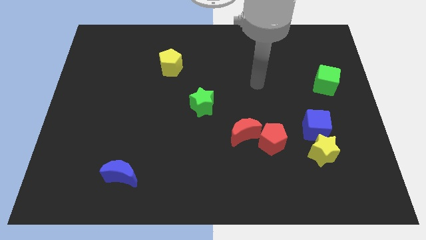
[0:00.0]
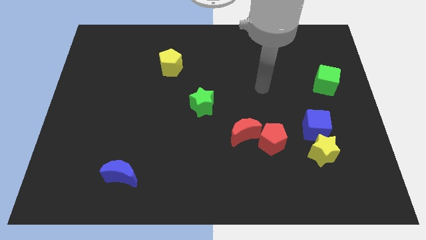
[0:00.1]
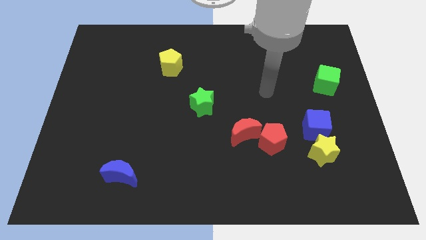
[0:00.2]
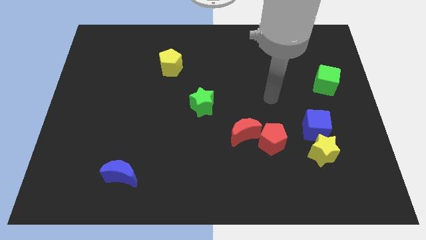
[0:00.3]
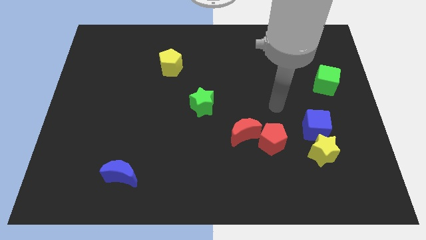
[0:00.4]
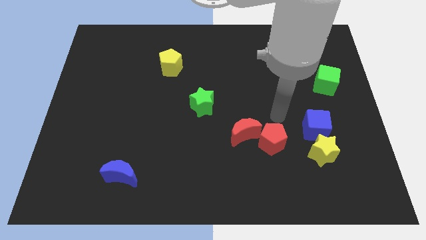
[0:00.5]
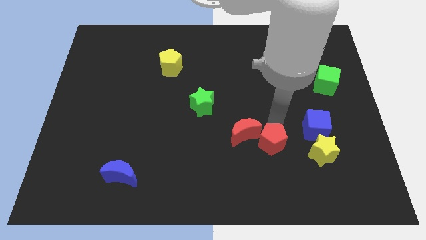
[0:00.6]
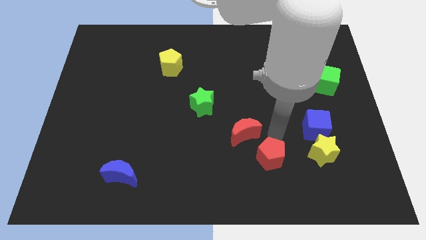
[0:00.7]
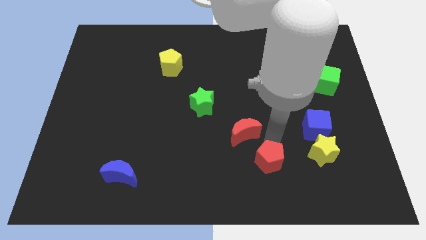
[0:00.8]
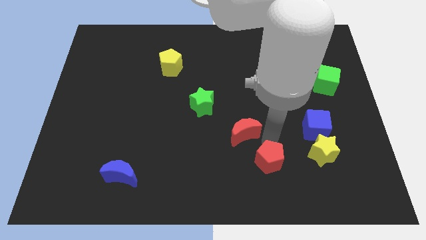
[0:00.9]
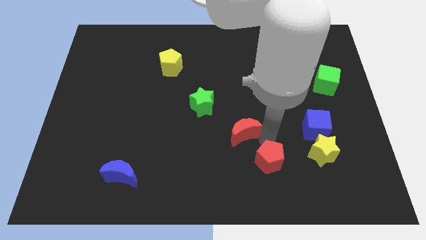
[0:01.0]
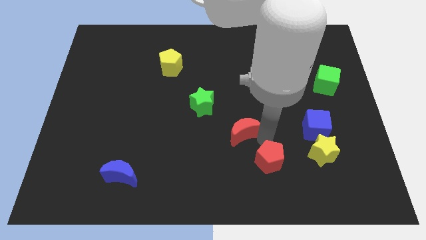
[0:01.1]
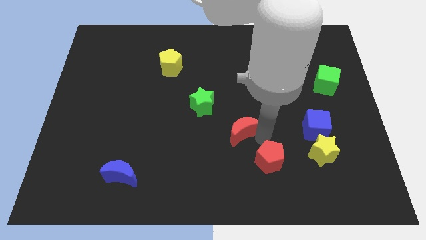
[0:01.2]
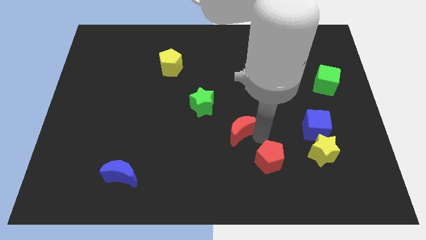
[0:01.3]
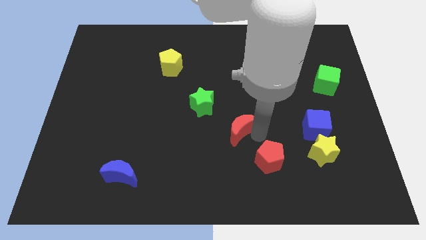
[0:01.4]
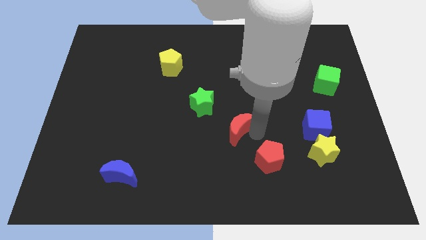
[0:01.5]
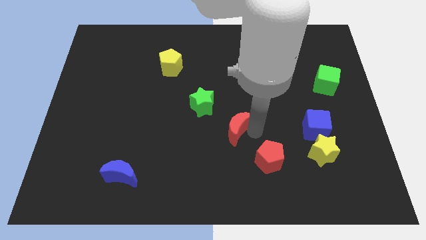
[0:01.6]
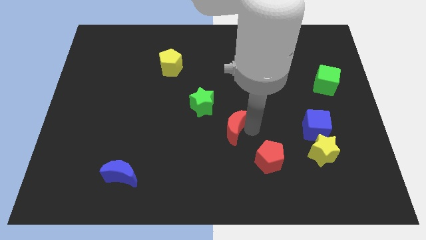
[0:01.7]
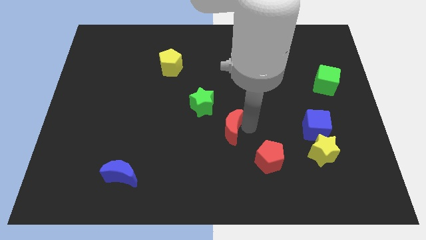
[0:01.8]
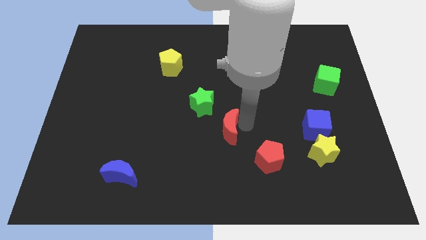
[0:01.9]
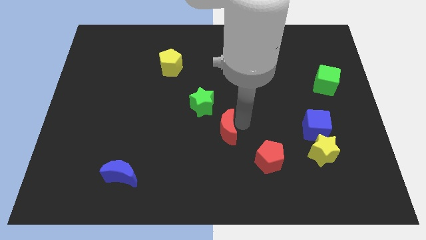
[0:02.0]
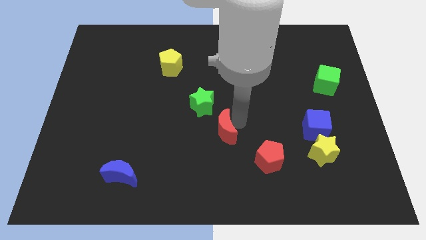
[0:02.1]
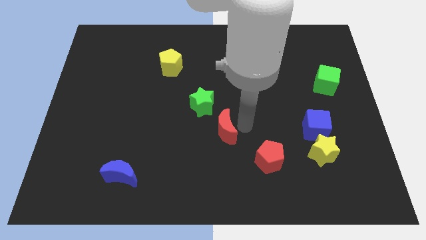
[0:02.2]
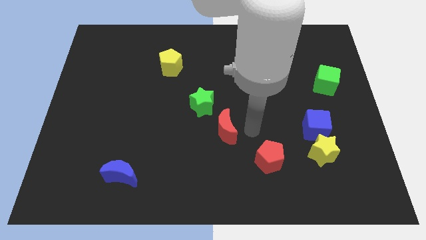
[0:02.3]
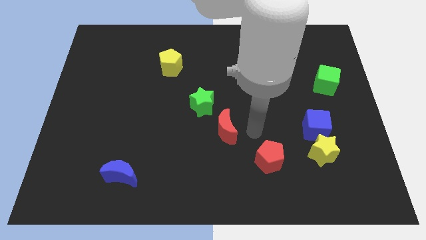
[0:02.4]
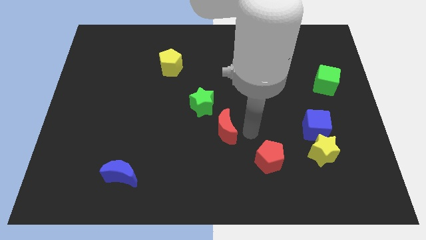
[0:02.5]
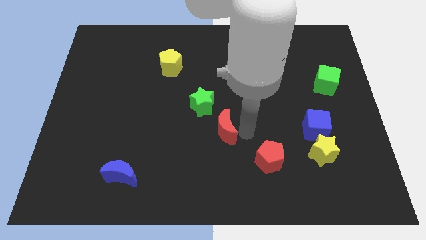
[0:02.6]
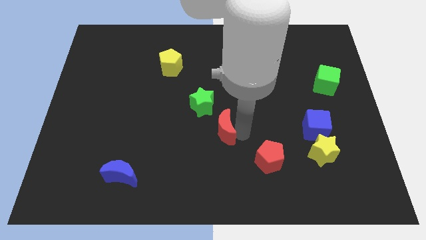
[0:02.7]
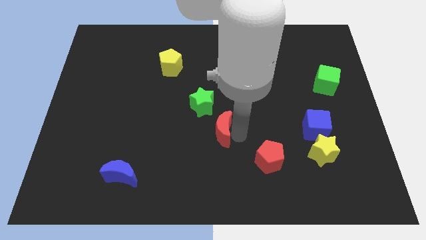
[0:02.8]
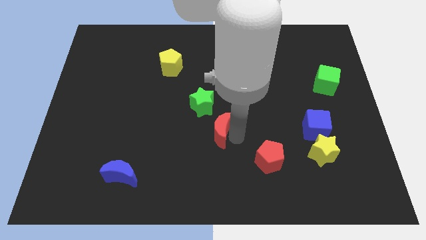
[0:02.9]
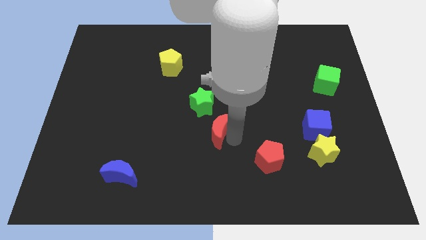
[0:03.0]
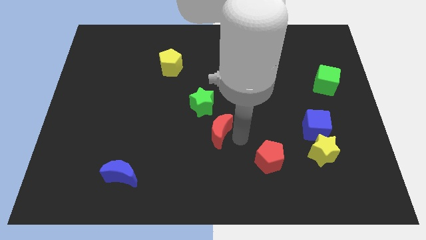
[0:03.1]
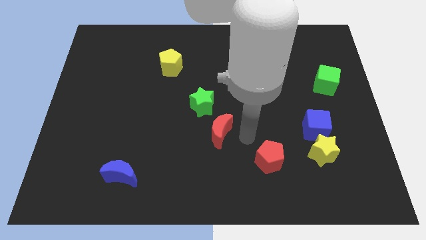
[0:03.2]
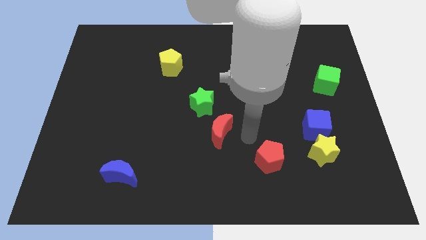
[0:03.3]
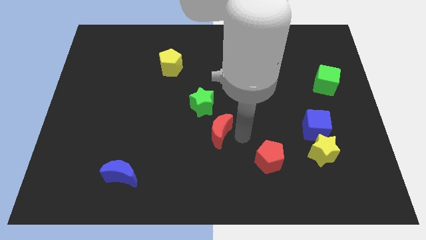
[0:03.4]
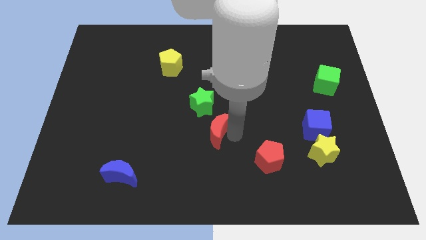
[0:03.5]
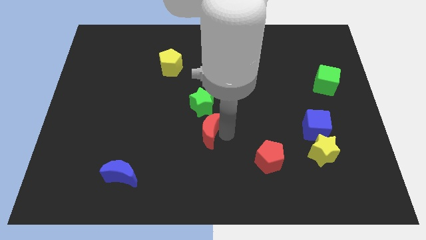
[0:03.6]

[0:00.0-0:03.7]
slightly slide the red moon to the left

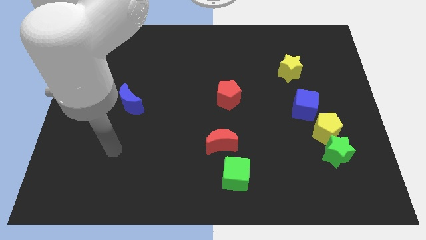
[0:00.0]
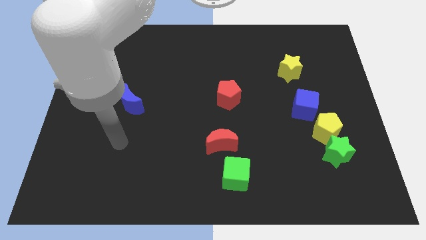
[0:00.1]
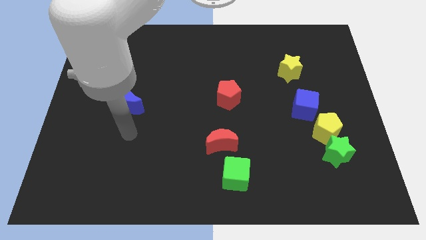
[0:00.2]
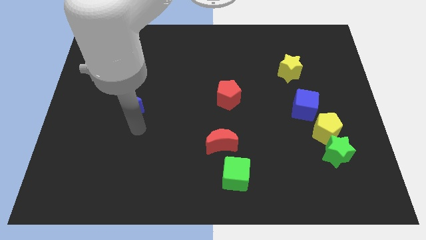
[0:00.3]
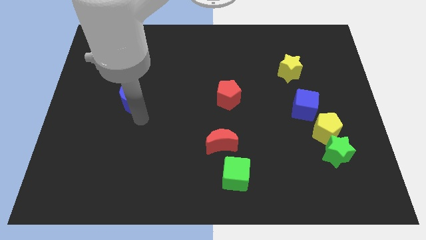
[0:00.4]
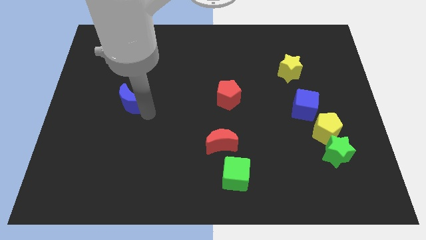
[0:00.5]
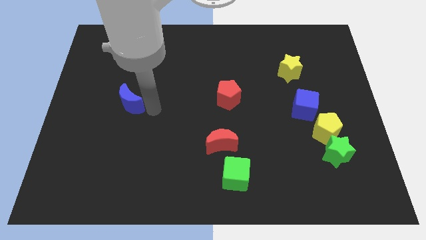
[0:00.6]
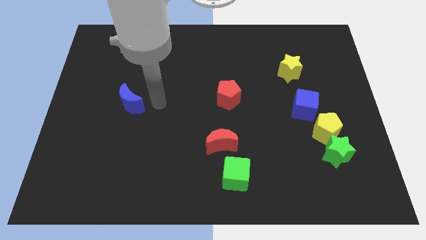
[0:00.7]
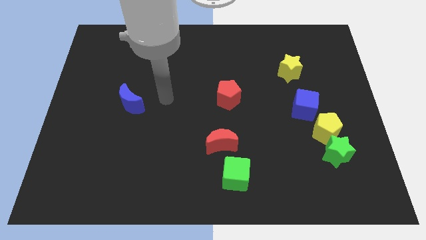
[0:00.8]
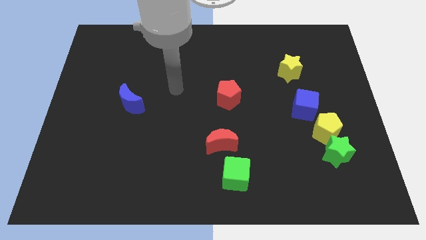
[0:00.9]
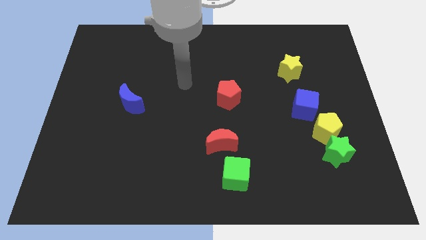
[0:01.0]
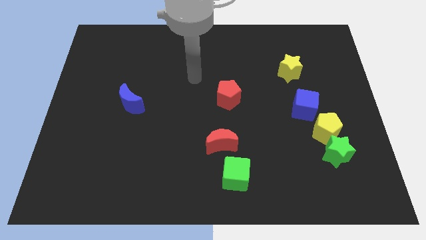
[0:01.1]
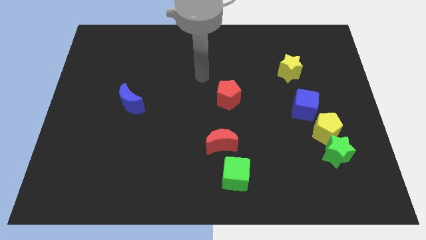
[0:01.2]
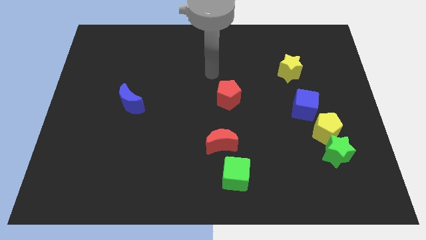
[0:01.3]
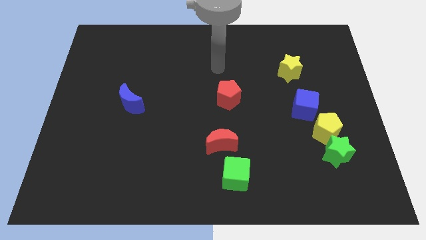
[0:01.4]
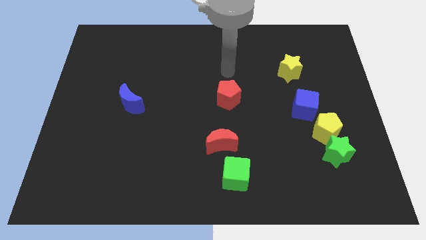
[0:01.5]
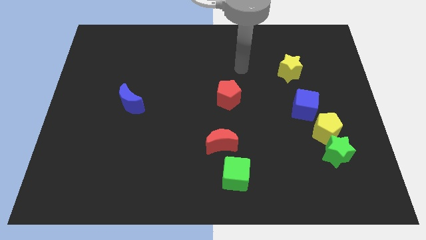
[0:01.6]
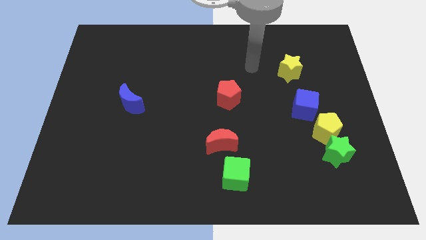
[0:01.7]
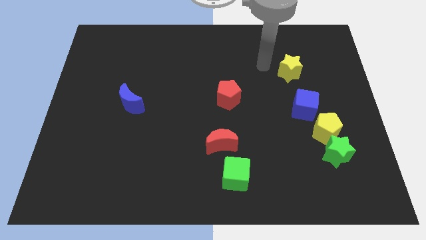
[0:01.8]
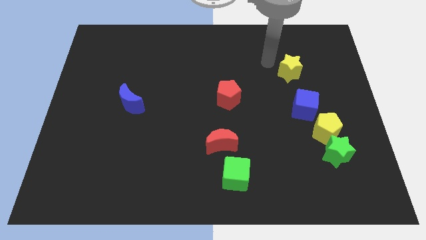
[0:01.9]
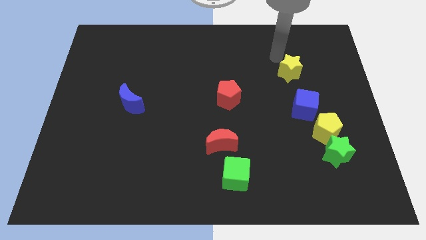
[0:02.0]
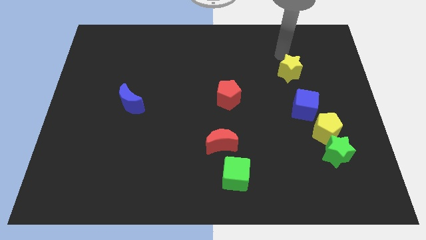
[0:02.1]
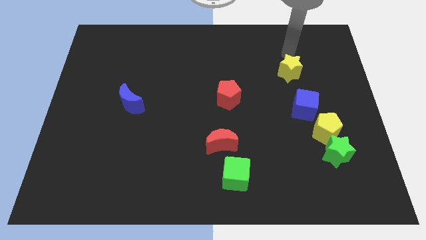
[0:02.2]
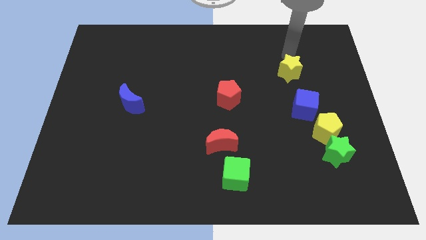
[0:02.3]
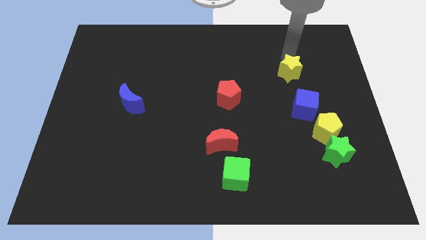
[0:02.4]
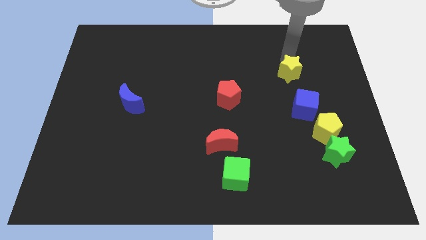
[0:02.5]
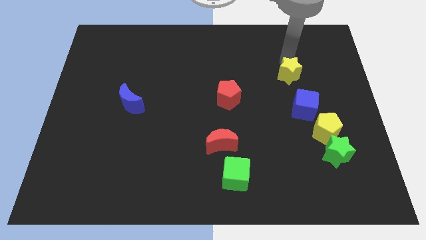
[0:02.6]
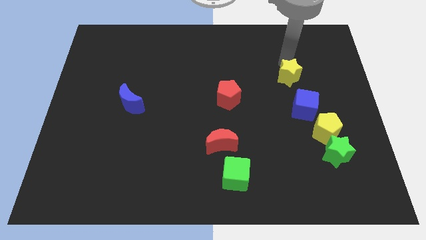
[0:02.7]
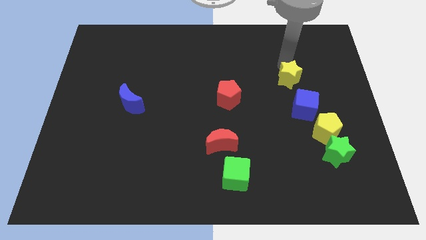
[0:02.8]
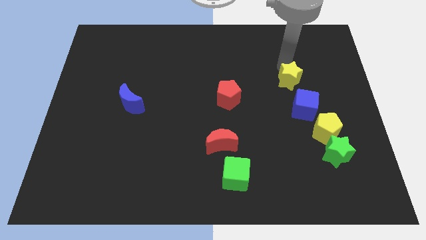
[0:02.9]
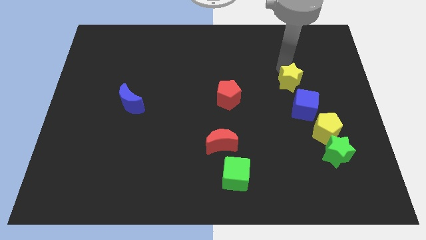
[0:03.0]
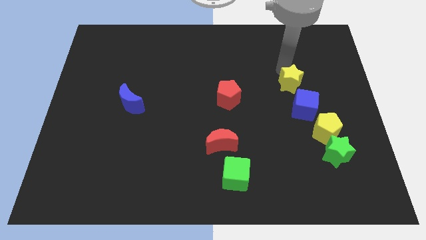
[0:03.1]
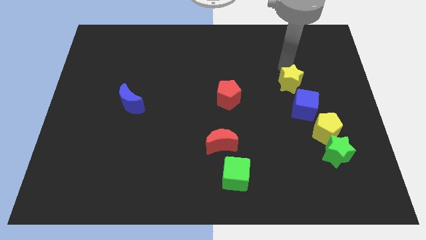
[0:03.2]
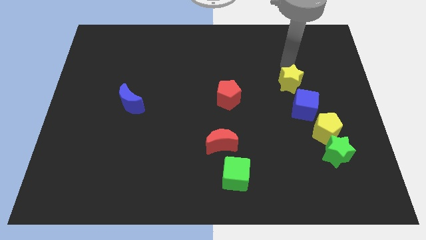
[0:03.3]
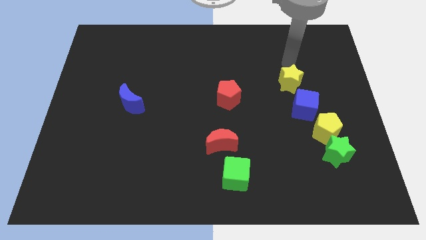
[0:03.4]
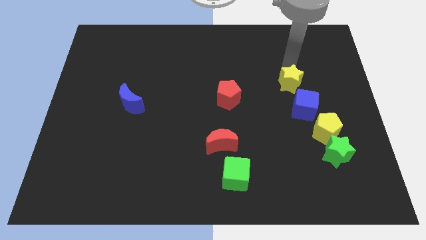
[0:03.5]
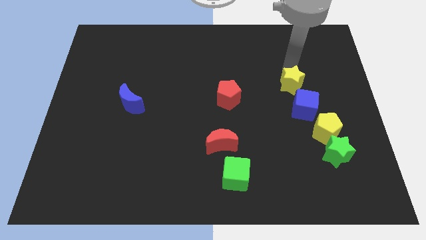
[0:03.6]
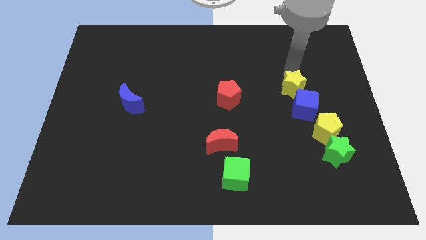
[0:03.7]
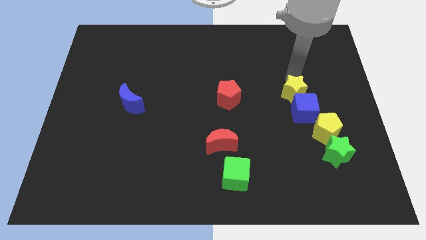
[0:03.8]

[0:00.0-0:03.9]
push the yellow star down a little

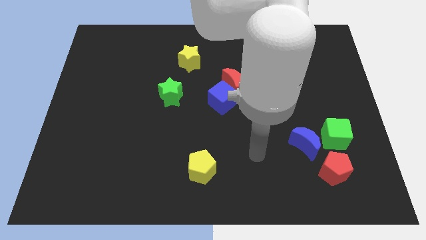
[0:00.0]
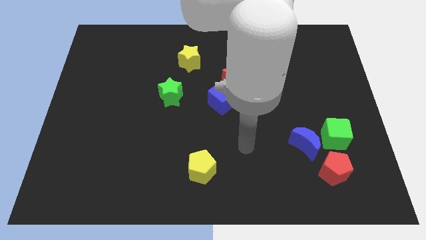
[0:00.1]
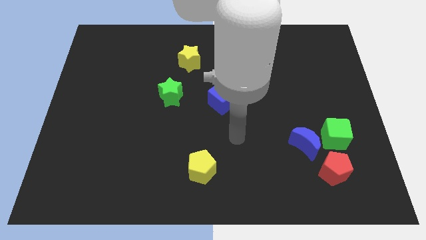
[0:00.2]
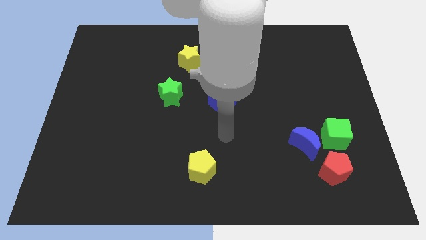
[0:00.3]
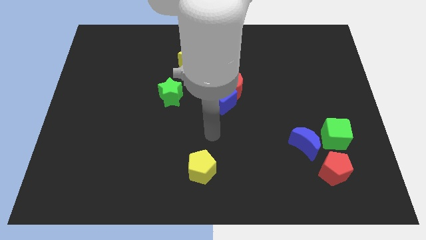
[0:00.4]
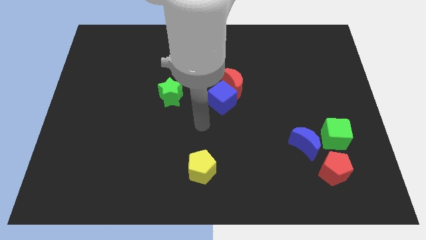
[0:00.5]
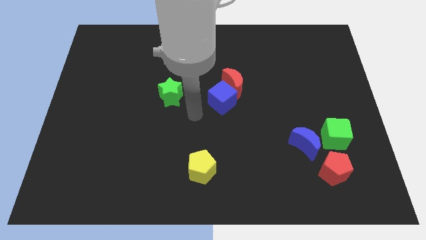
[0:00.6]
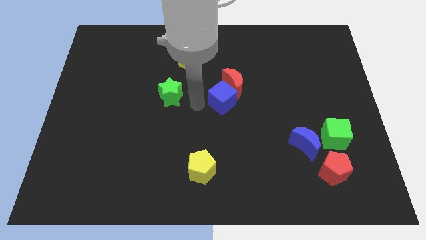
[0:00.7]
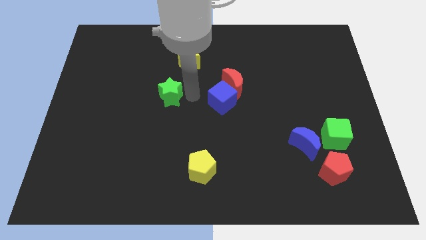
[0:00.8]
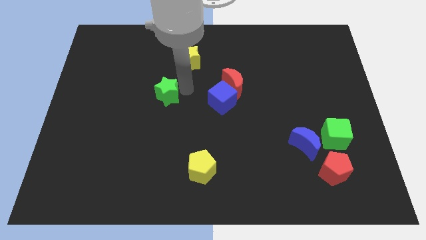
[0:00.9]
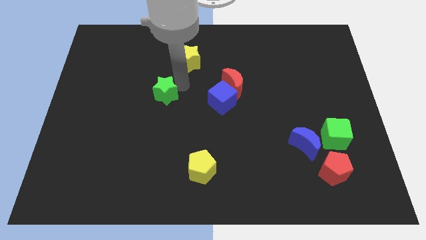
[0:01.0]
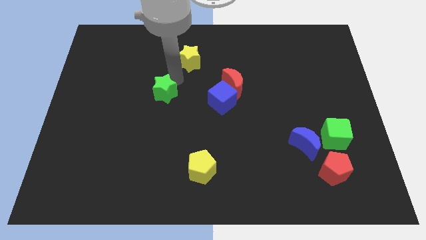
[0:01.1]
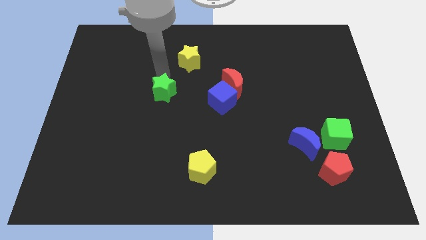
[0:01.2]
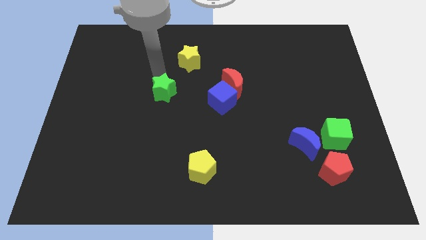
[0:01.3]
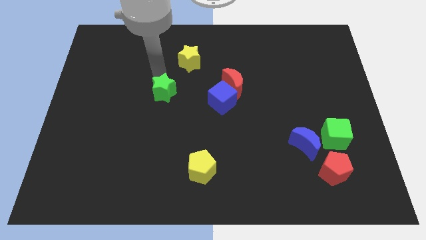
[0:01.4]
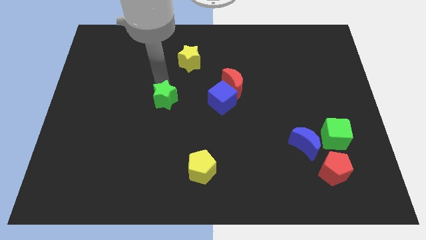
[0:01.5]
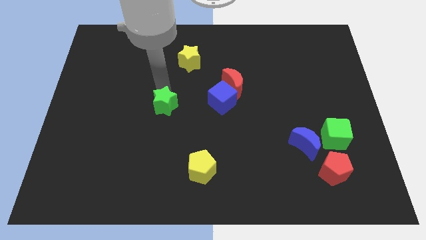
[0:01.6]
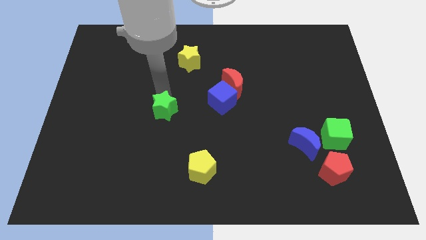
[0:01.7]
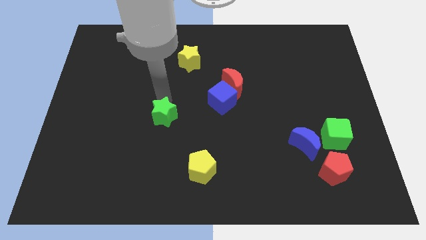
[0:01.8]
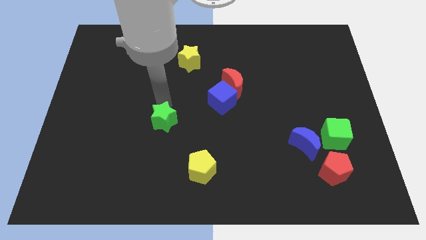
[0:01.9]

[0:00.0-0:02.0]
slightly move the green star downwards
